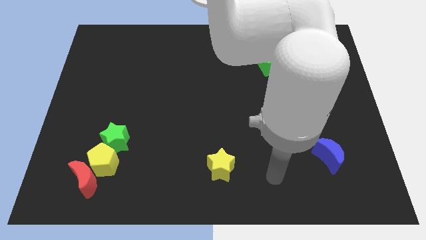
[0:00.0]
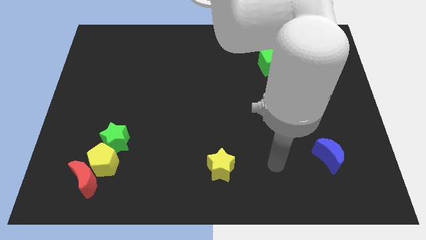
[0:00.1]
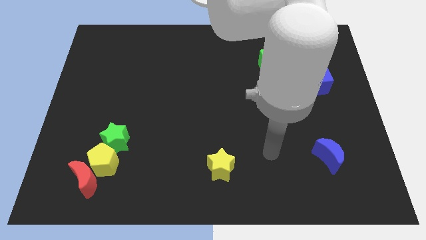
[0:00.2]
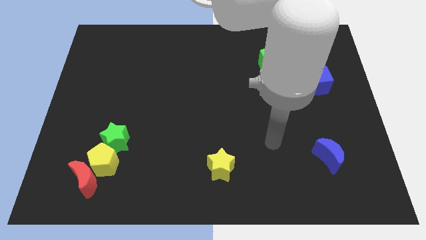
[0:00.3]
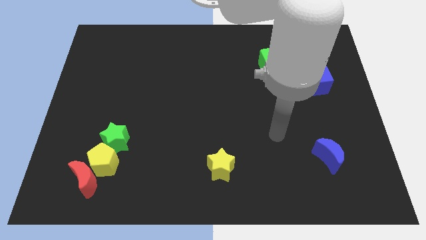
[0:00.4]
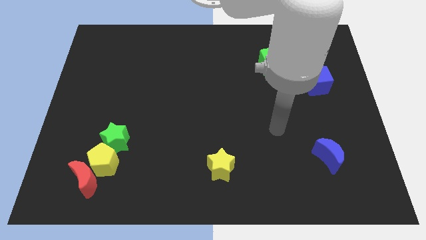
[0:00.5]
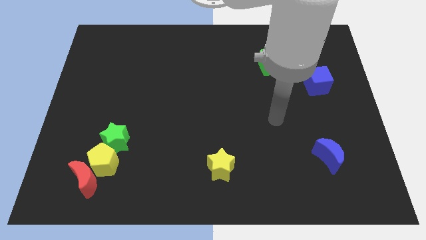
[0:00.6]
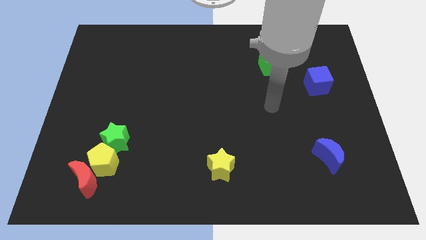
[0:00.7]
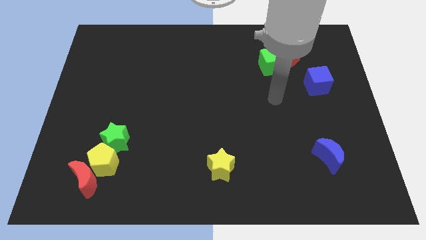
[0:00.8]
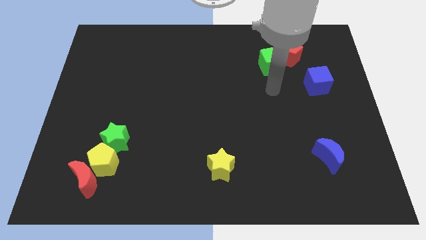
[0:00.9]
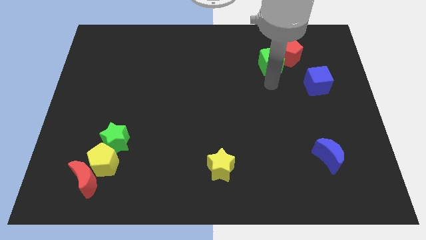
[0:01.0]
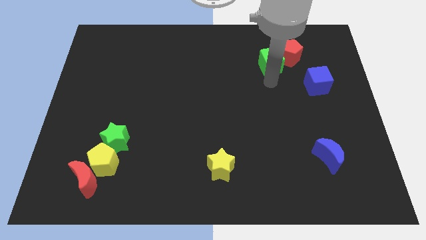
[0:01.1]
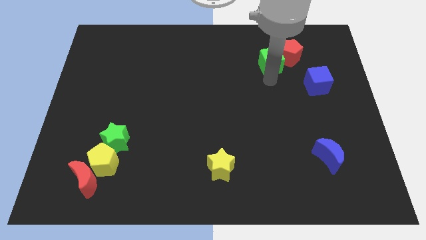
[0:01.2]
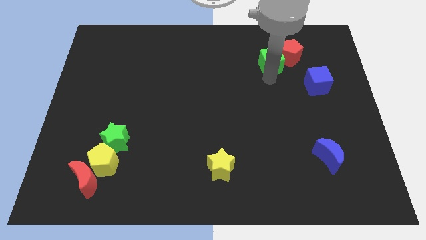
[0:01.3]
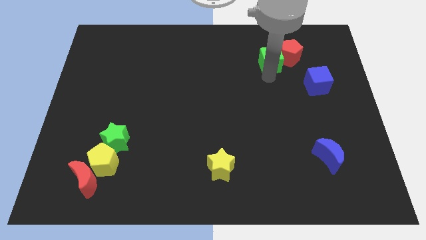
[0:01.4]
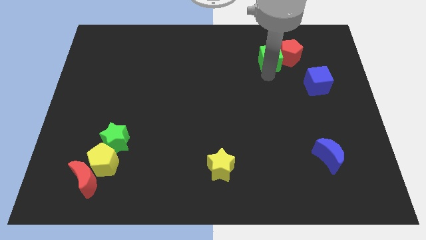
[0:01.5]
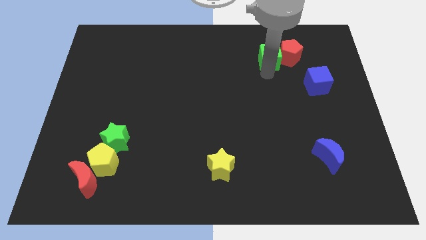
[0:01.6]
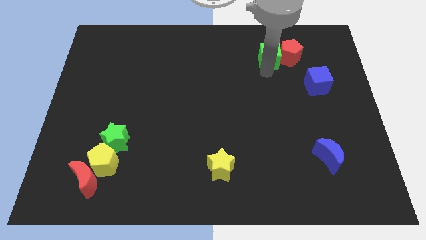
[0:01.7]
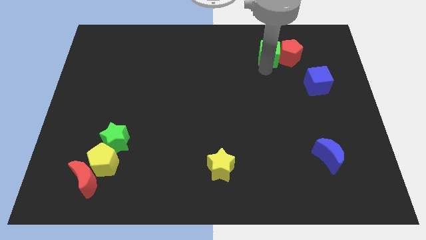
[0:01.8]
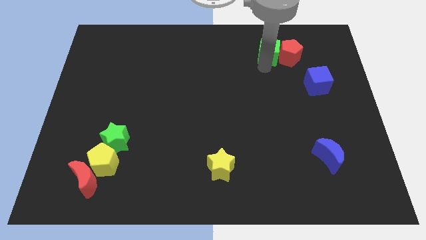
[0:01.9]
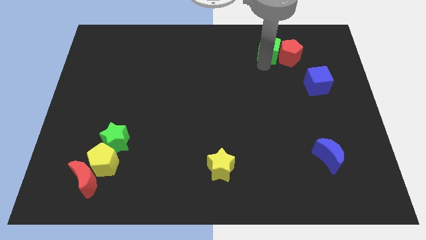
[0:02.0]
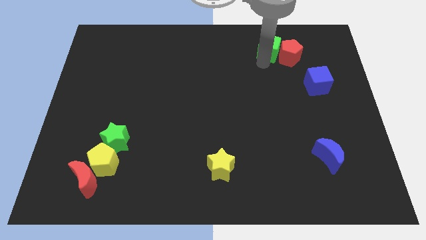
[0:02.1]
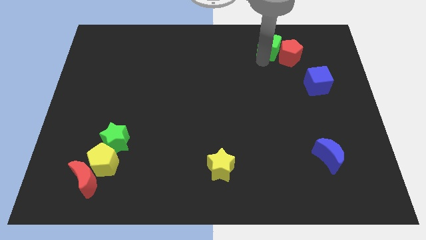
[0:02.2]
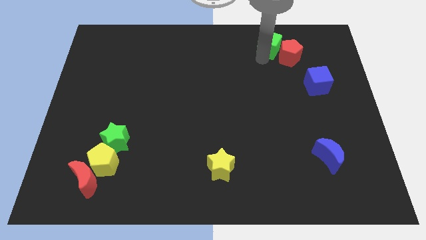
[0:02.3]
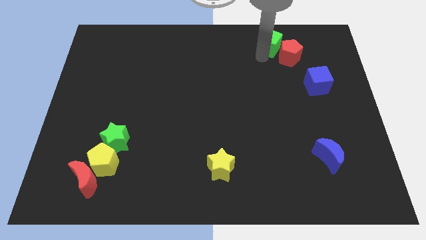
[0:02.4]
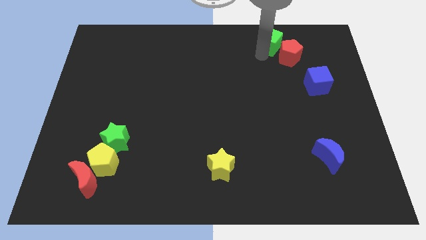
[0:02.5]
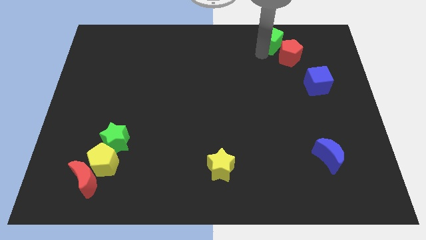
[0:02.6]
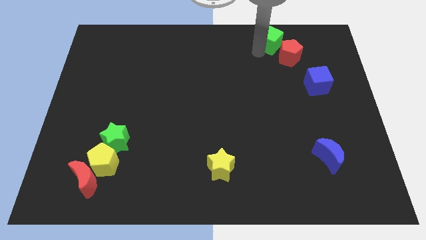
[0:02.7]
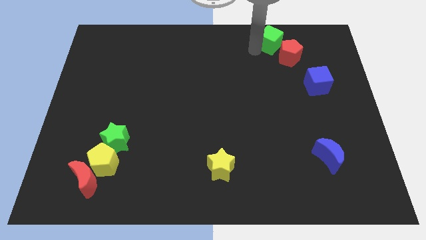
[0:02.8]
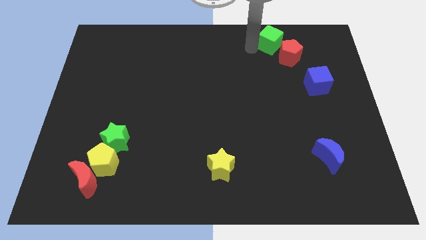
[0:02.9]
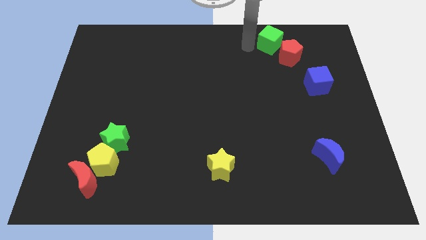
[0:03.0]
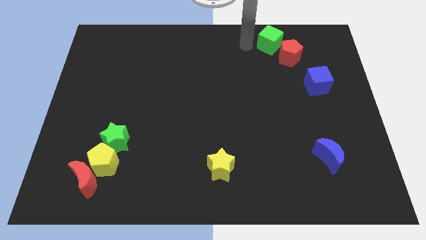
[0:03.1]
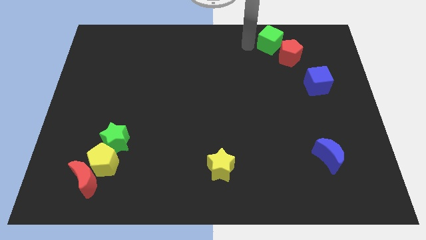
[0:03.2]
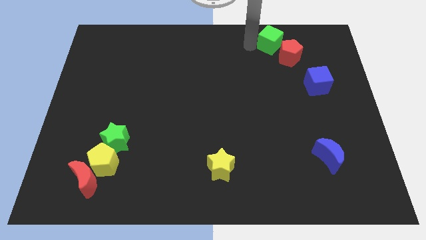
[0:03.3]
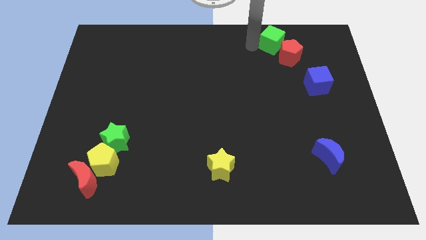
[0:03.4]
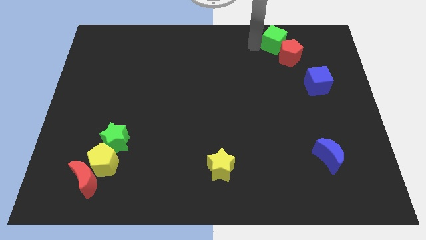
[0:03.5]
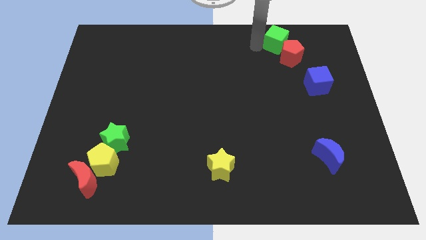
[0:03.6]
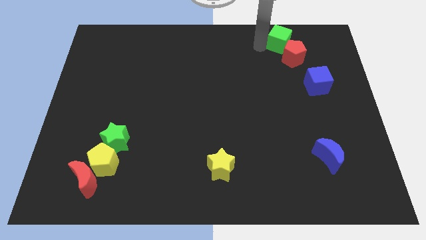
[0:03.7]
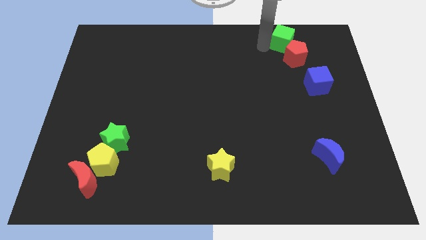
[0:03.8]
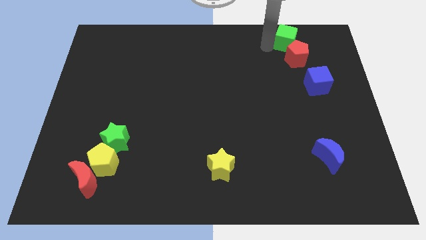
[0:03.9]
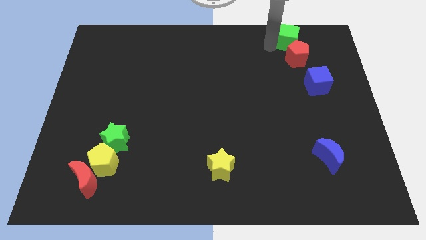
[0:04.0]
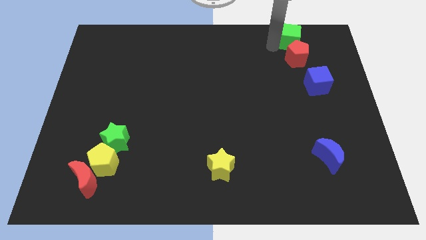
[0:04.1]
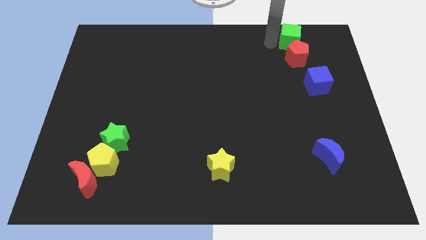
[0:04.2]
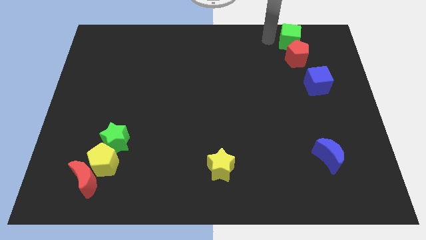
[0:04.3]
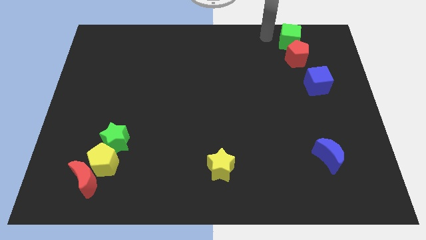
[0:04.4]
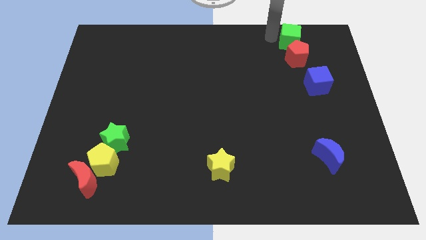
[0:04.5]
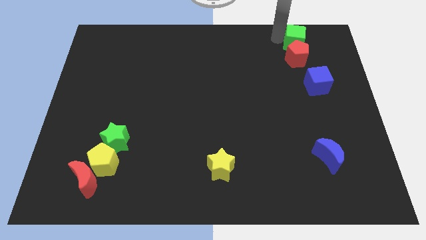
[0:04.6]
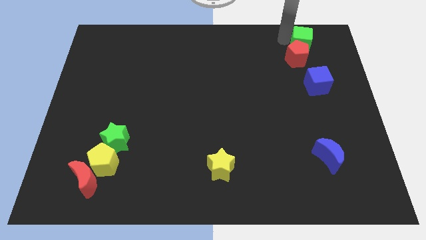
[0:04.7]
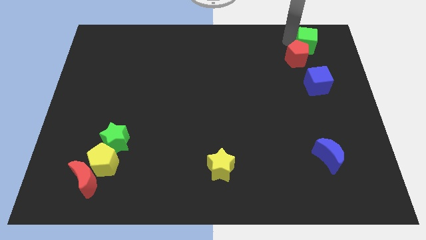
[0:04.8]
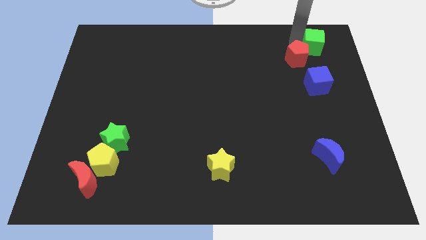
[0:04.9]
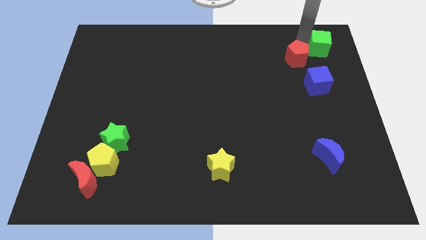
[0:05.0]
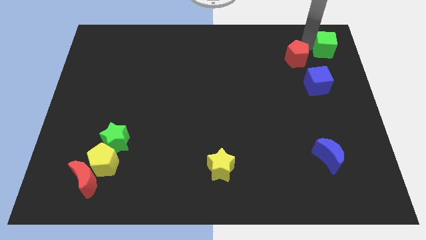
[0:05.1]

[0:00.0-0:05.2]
move the green cube to the top right of the board

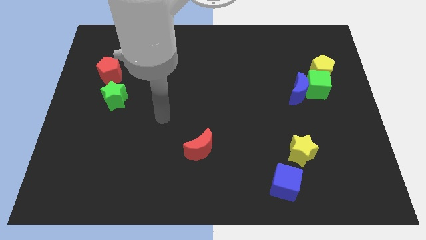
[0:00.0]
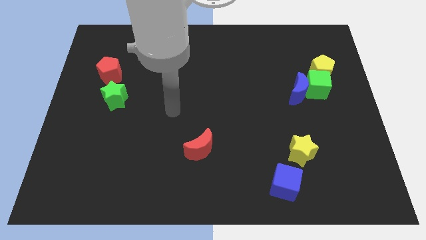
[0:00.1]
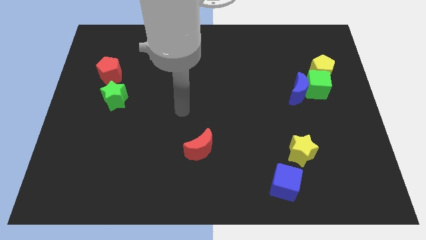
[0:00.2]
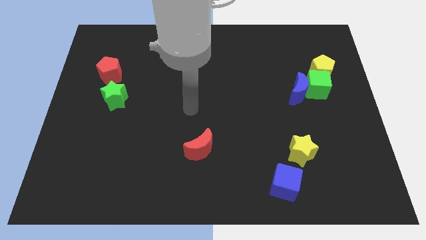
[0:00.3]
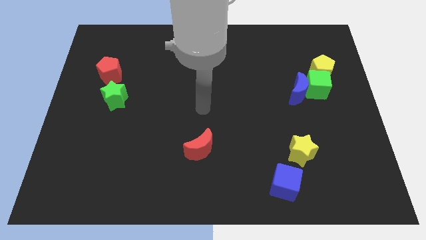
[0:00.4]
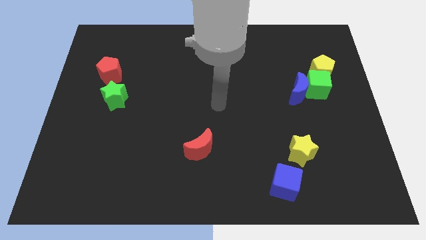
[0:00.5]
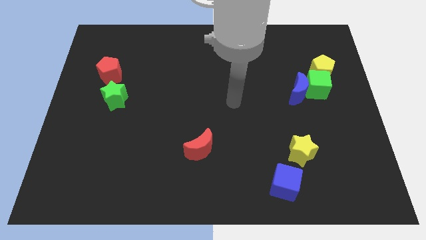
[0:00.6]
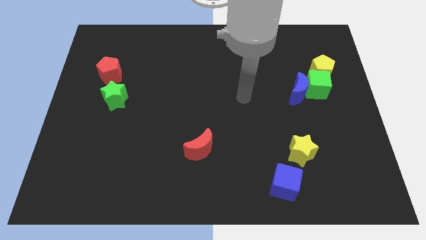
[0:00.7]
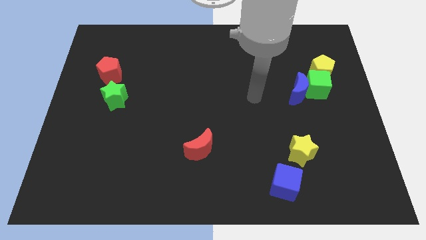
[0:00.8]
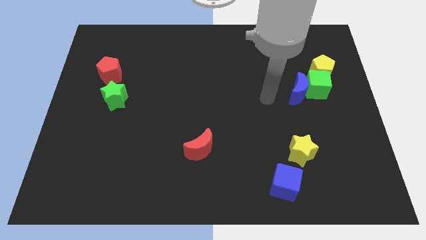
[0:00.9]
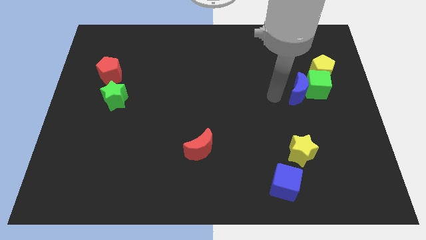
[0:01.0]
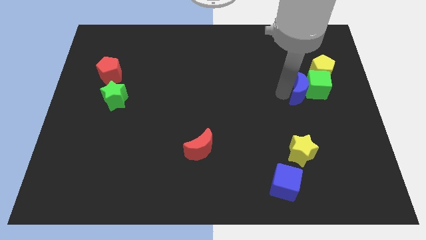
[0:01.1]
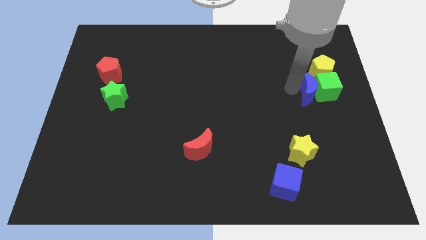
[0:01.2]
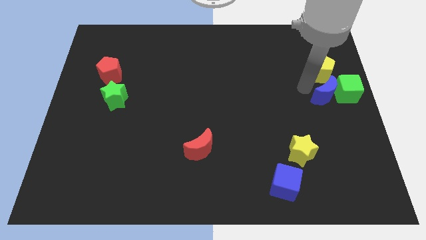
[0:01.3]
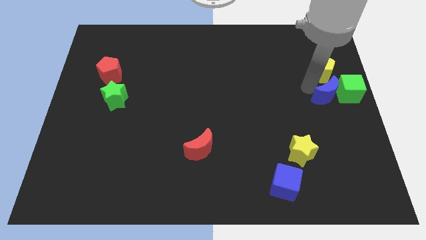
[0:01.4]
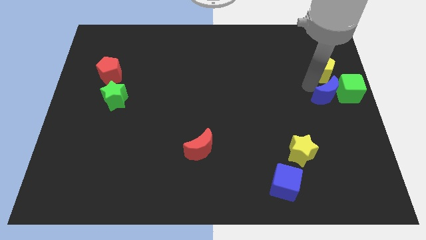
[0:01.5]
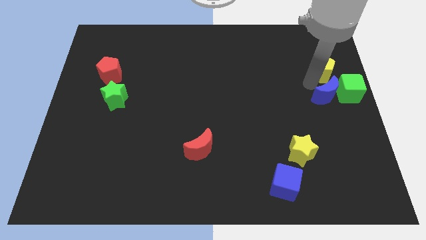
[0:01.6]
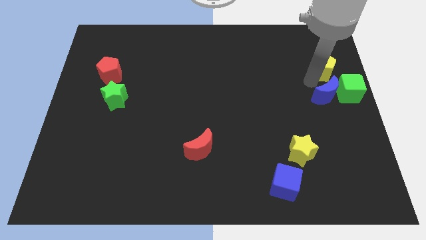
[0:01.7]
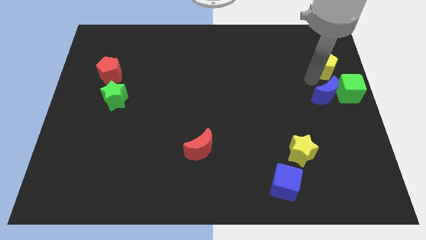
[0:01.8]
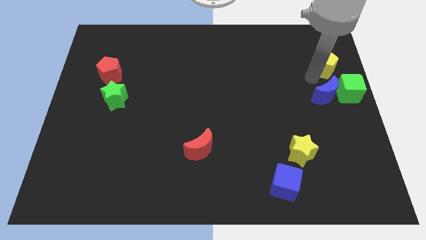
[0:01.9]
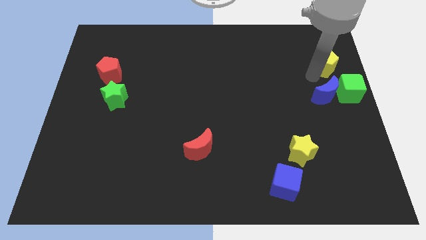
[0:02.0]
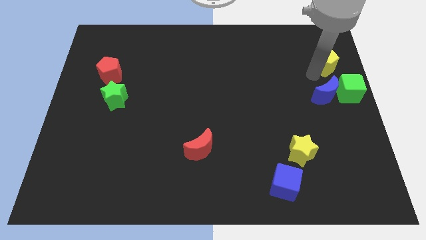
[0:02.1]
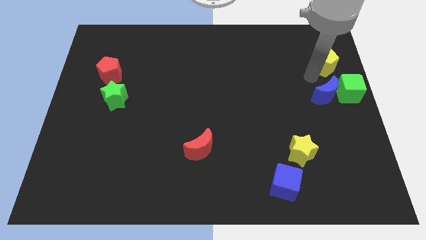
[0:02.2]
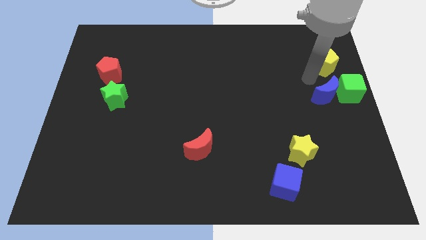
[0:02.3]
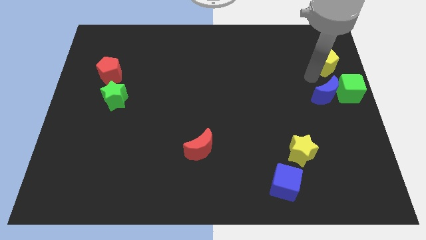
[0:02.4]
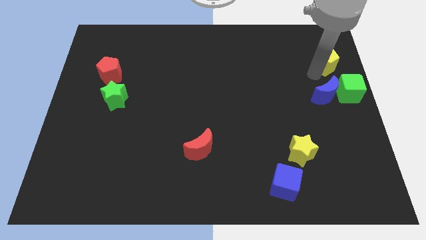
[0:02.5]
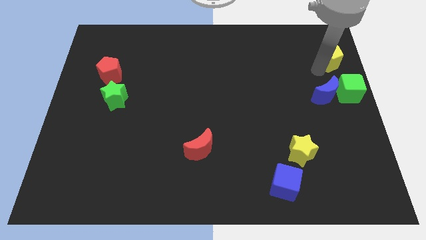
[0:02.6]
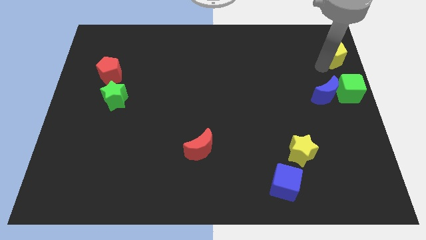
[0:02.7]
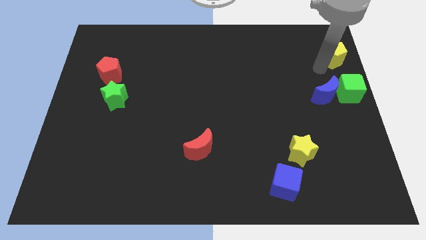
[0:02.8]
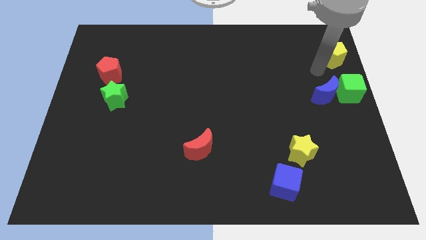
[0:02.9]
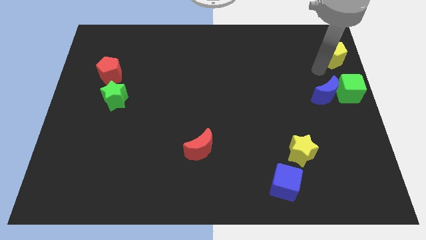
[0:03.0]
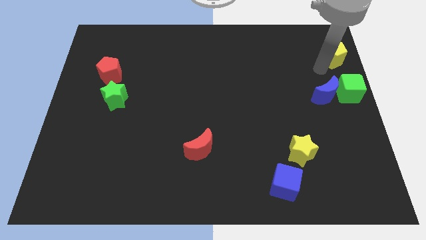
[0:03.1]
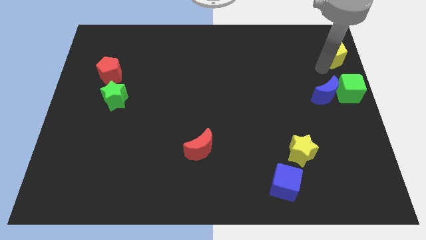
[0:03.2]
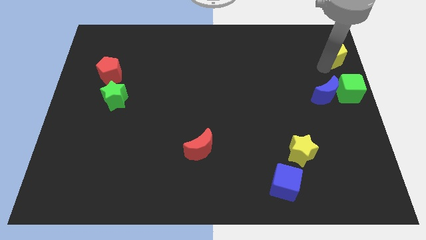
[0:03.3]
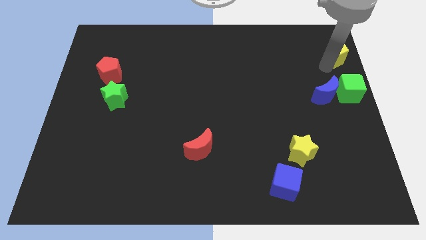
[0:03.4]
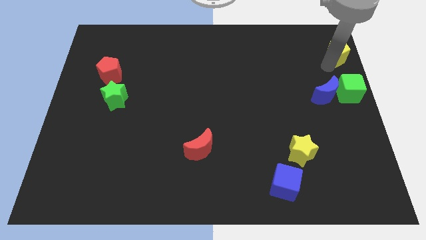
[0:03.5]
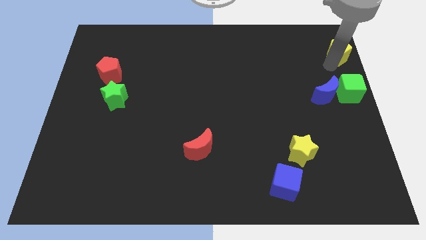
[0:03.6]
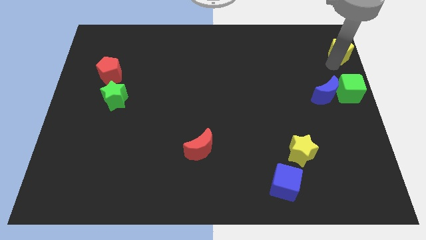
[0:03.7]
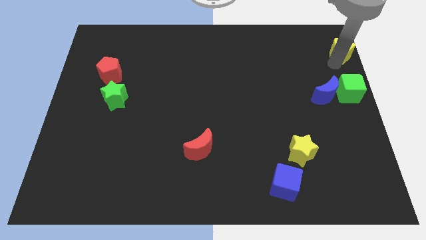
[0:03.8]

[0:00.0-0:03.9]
put the yellow pentagon to the top right of the board
